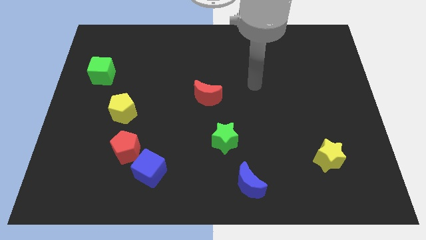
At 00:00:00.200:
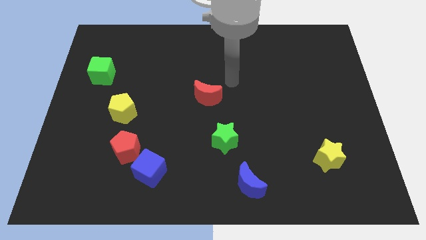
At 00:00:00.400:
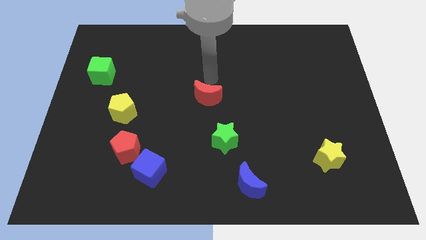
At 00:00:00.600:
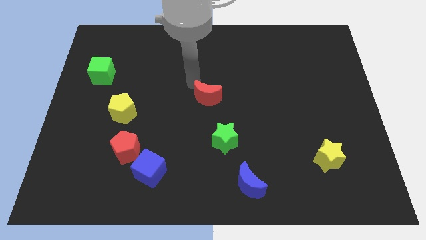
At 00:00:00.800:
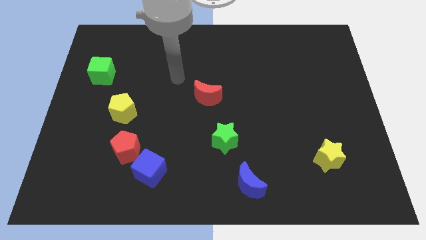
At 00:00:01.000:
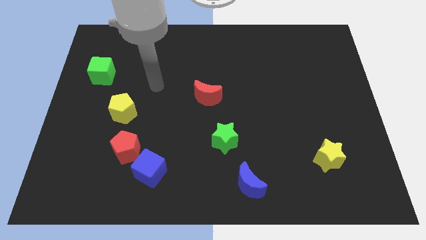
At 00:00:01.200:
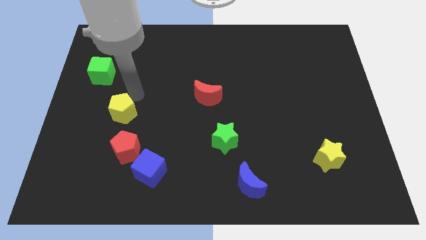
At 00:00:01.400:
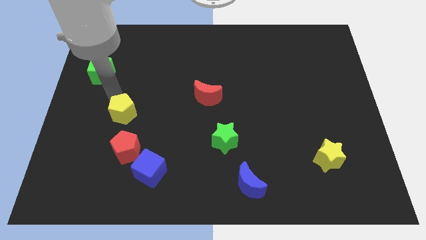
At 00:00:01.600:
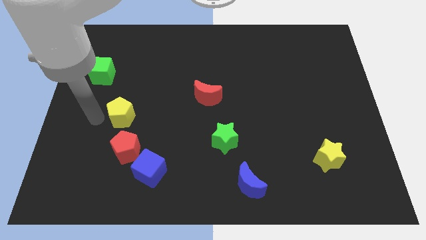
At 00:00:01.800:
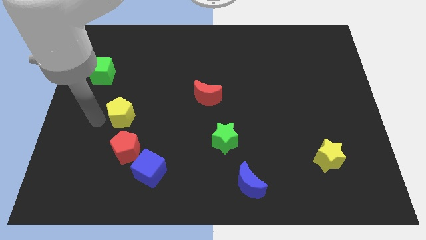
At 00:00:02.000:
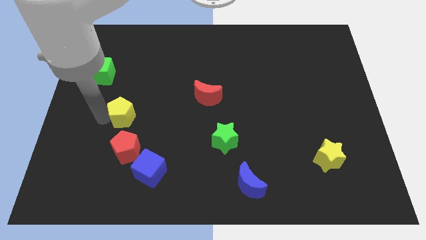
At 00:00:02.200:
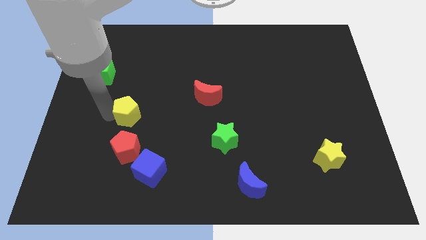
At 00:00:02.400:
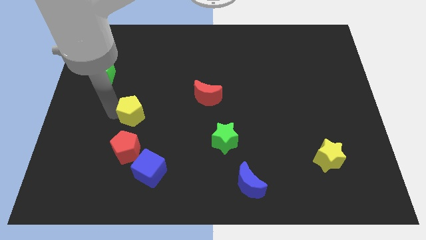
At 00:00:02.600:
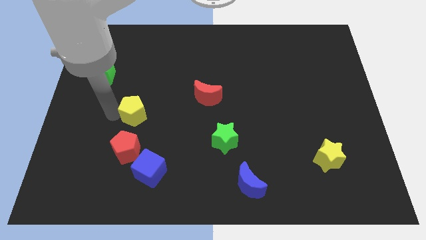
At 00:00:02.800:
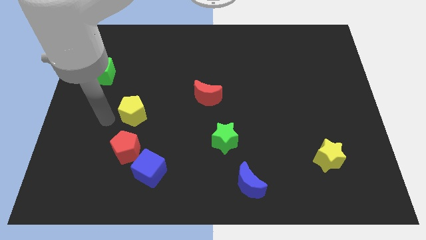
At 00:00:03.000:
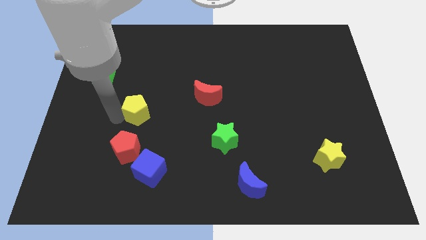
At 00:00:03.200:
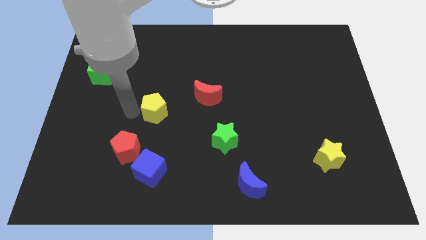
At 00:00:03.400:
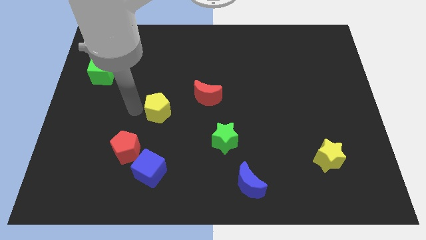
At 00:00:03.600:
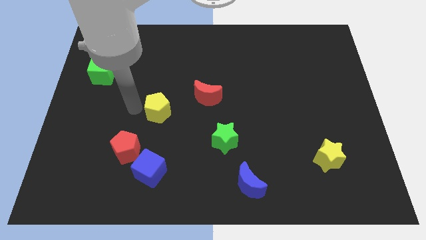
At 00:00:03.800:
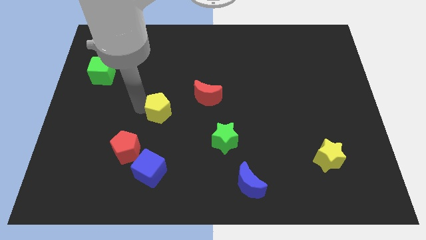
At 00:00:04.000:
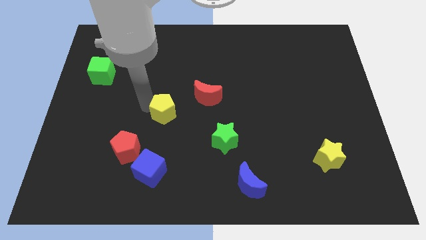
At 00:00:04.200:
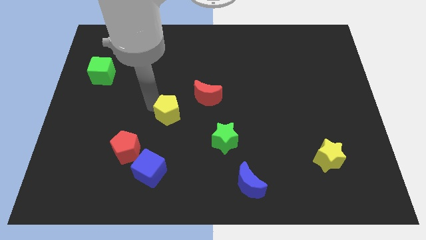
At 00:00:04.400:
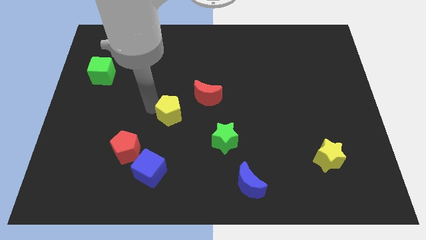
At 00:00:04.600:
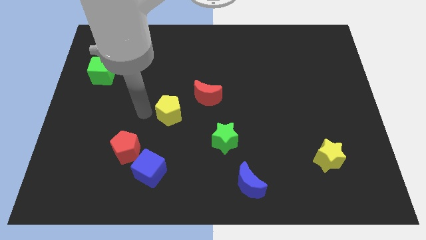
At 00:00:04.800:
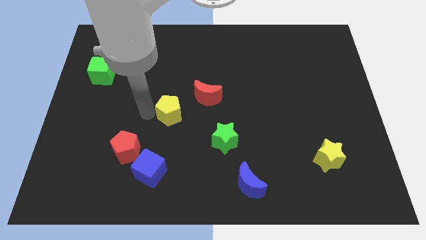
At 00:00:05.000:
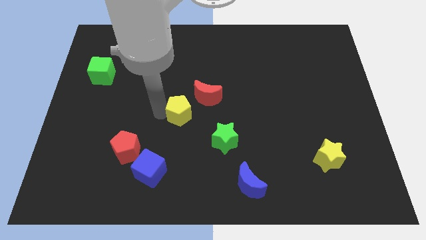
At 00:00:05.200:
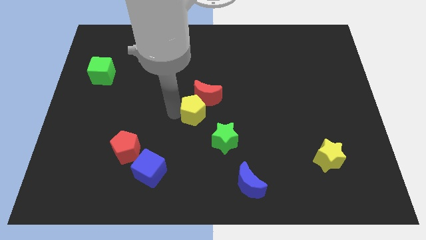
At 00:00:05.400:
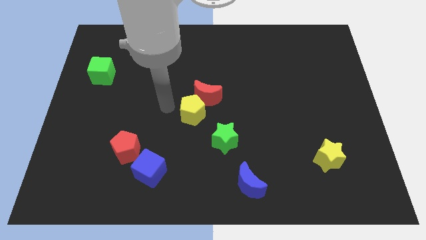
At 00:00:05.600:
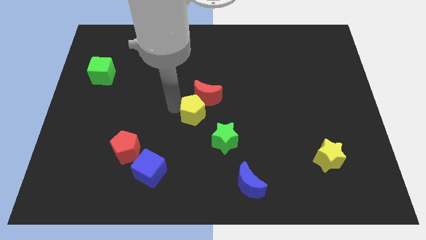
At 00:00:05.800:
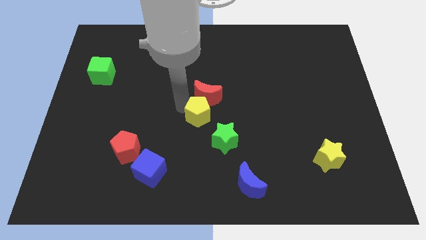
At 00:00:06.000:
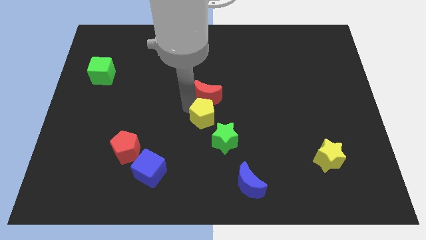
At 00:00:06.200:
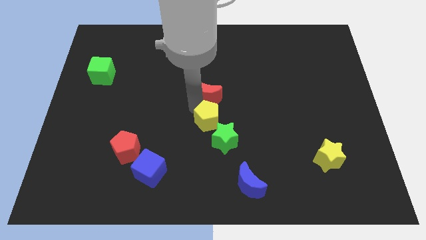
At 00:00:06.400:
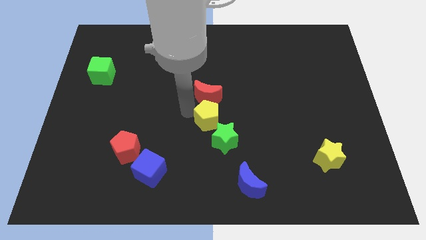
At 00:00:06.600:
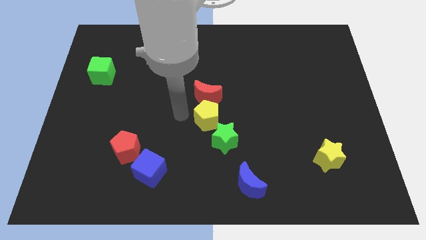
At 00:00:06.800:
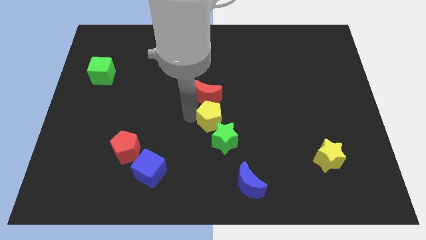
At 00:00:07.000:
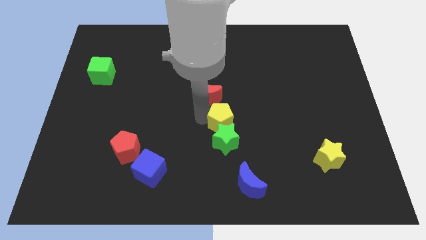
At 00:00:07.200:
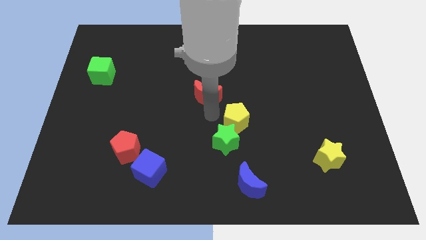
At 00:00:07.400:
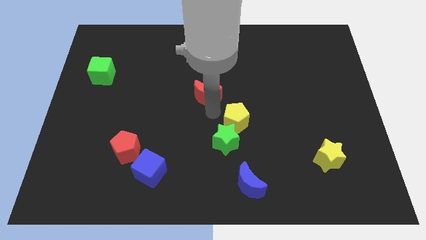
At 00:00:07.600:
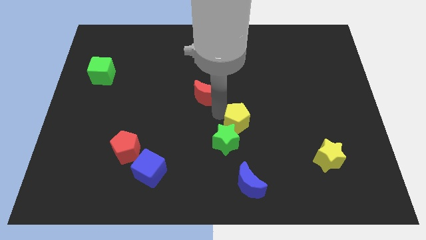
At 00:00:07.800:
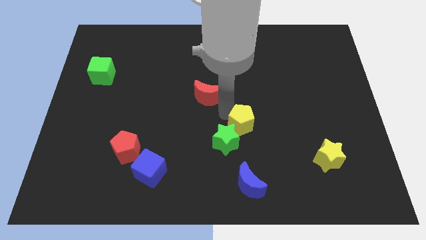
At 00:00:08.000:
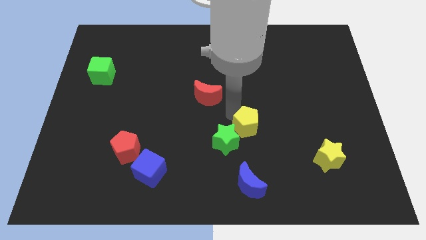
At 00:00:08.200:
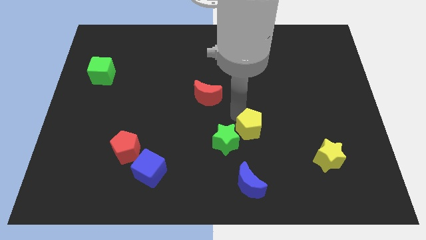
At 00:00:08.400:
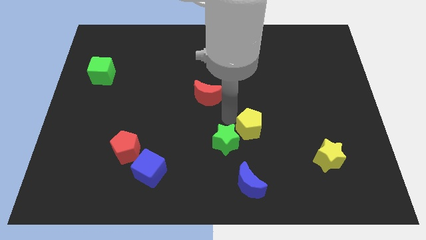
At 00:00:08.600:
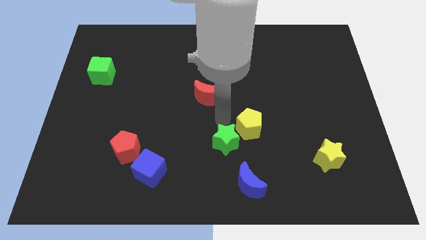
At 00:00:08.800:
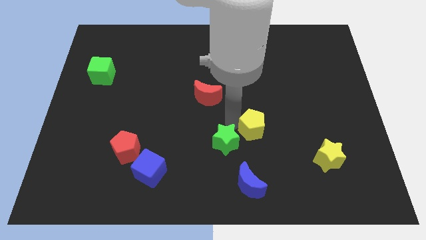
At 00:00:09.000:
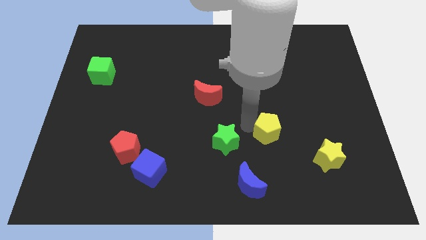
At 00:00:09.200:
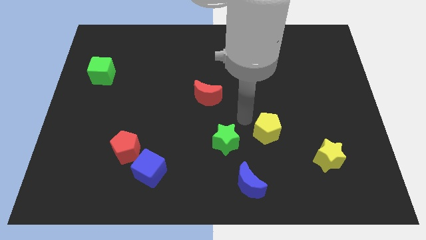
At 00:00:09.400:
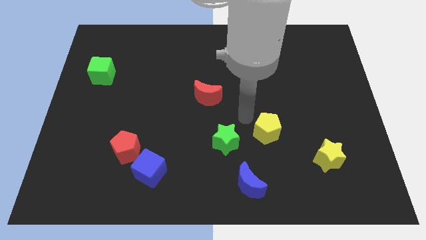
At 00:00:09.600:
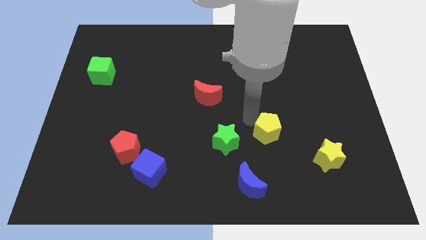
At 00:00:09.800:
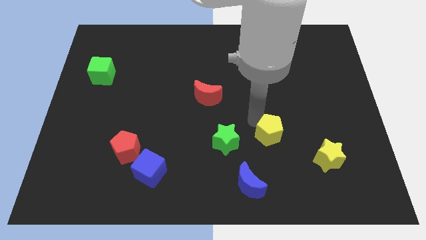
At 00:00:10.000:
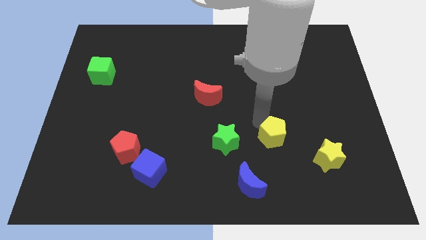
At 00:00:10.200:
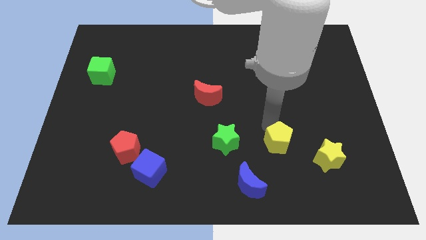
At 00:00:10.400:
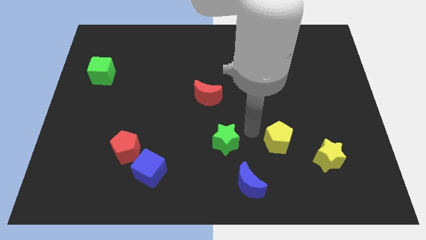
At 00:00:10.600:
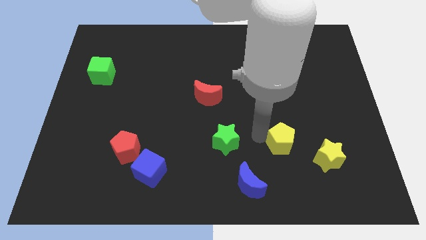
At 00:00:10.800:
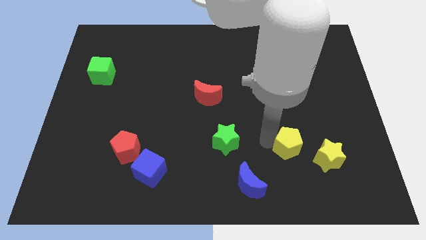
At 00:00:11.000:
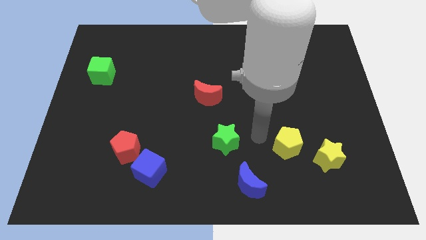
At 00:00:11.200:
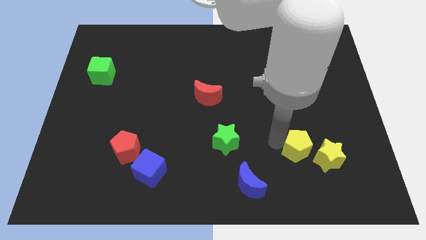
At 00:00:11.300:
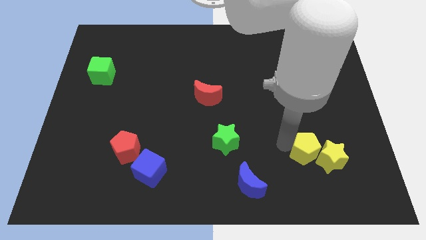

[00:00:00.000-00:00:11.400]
push the yellow pentagon next to the yellow star

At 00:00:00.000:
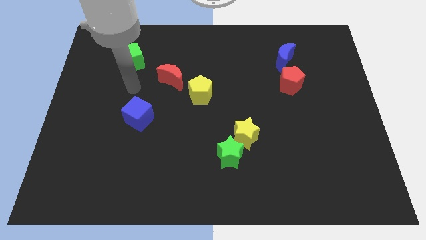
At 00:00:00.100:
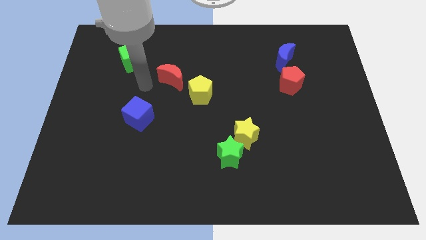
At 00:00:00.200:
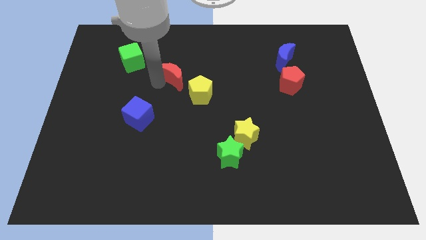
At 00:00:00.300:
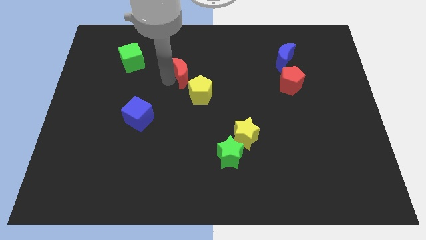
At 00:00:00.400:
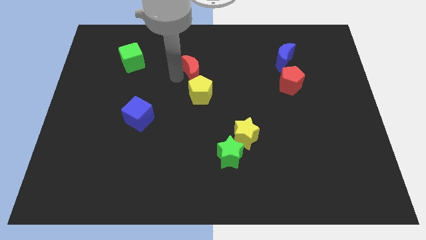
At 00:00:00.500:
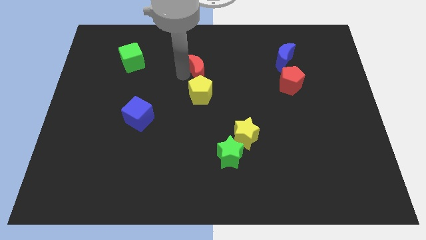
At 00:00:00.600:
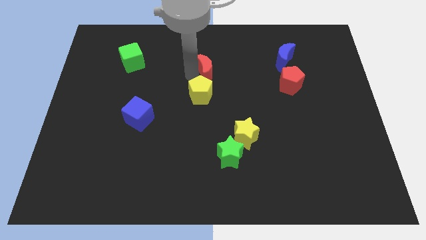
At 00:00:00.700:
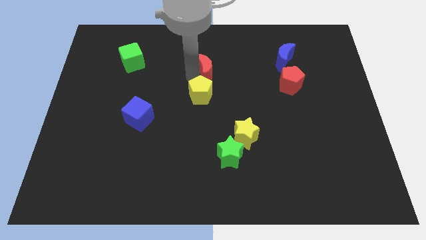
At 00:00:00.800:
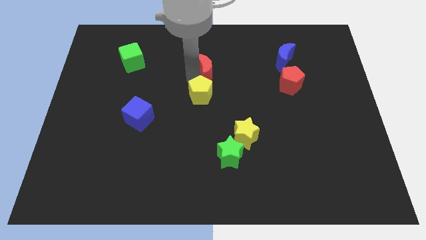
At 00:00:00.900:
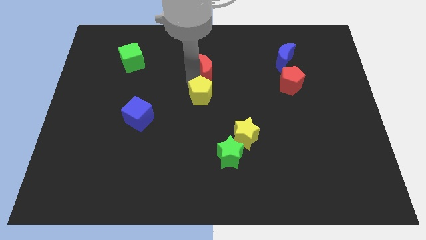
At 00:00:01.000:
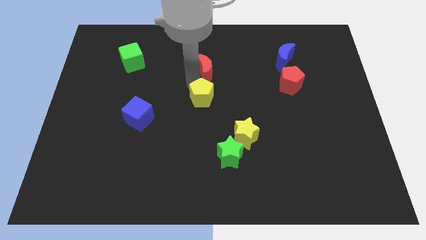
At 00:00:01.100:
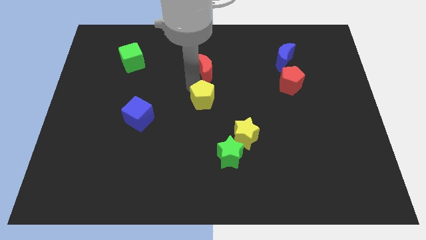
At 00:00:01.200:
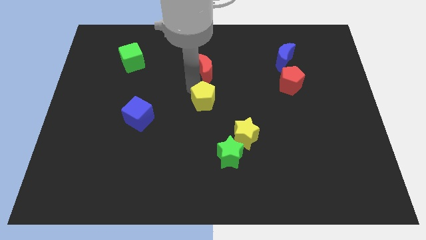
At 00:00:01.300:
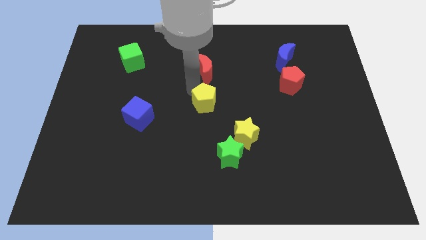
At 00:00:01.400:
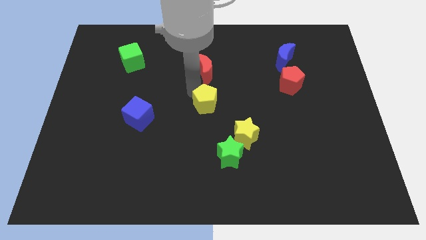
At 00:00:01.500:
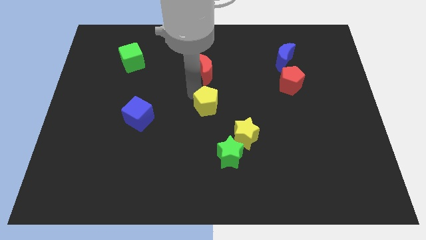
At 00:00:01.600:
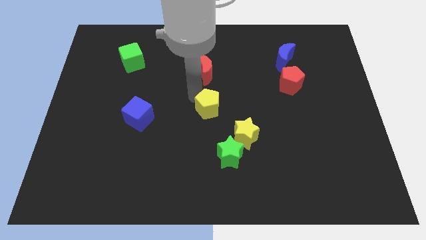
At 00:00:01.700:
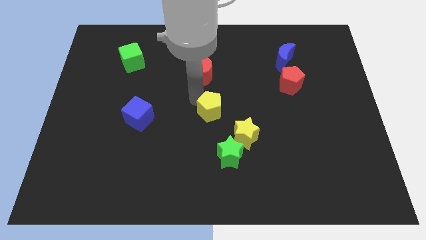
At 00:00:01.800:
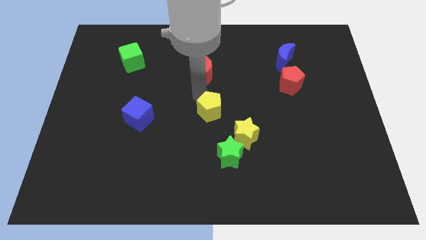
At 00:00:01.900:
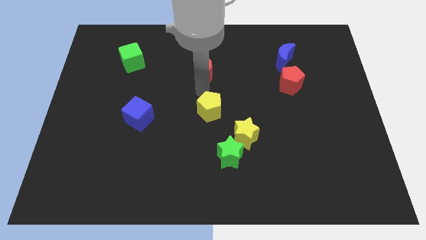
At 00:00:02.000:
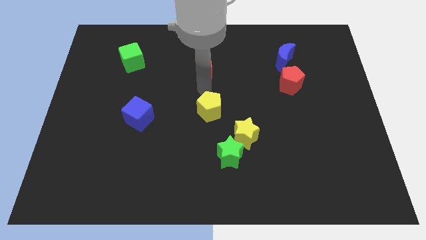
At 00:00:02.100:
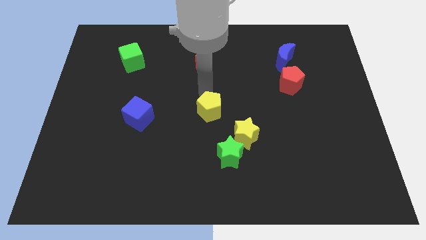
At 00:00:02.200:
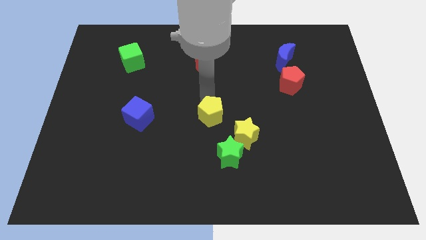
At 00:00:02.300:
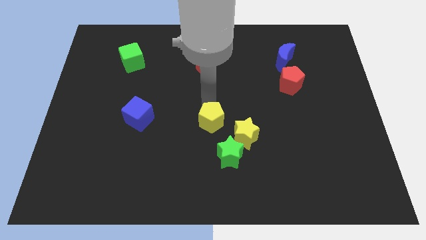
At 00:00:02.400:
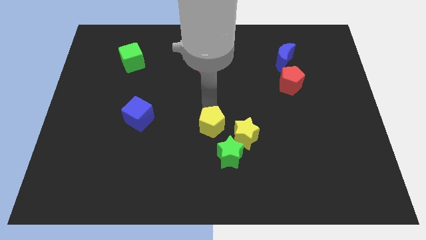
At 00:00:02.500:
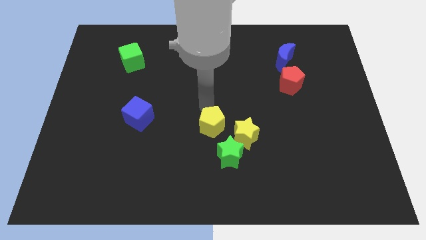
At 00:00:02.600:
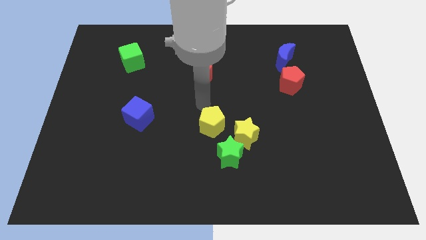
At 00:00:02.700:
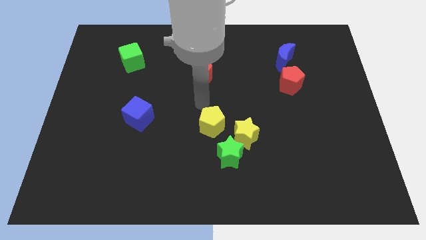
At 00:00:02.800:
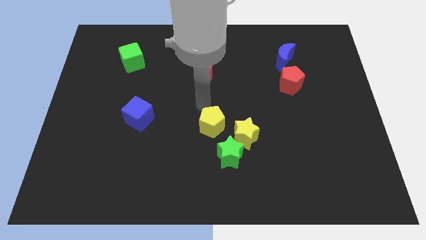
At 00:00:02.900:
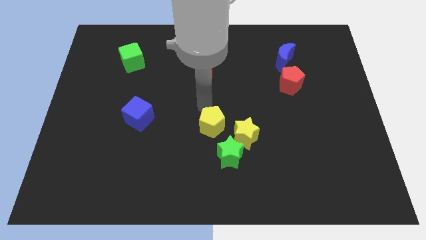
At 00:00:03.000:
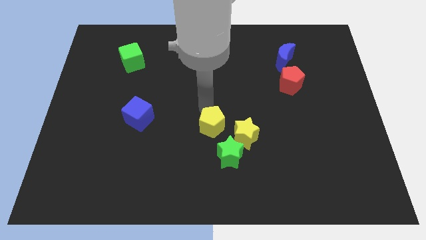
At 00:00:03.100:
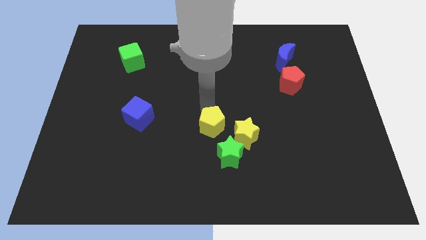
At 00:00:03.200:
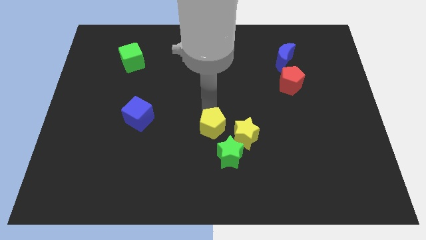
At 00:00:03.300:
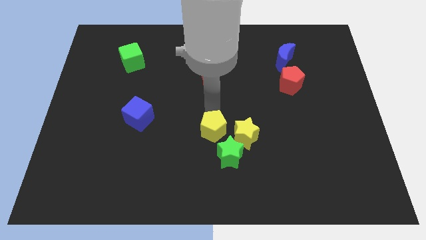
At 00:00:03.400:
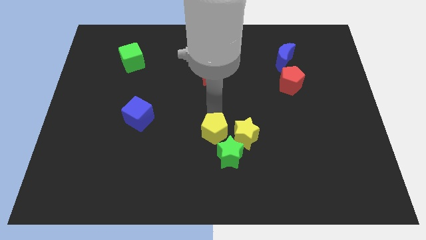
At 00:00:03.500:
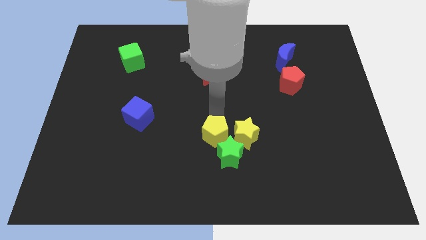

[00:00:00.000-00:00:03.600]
put the yellow pentagon next to the green star
